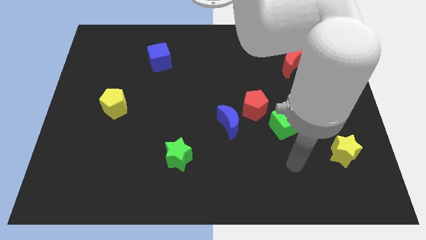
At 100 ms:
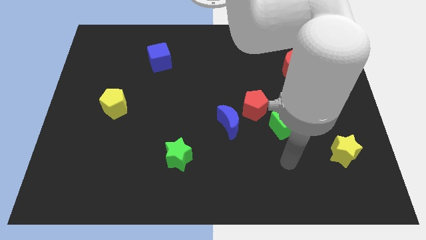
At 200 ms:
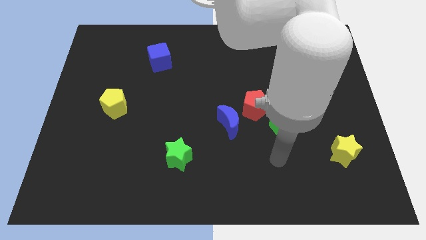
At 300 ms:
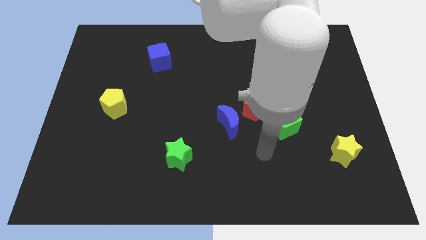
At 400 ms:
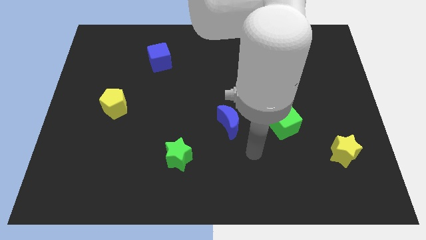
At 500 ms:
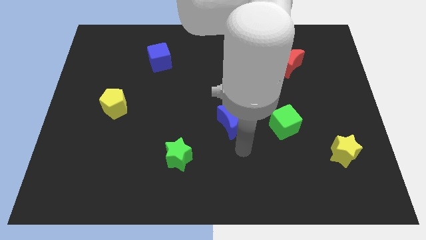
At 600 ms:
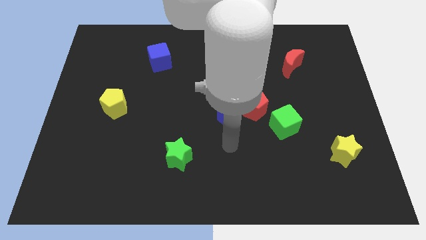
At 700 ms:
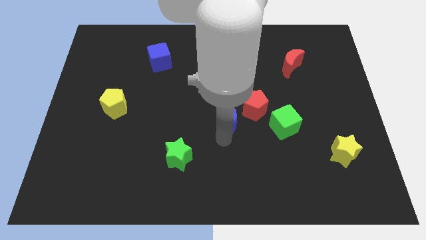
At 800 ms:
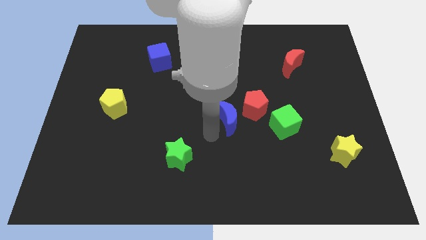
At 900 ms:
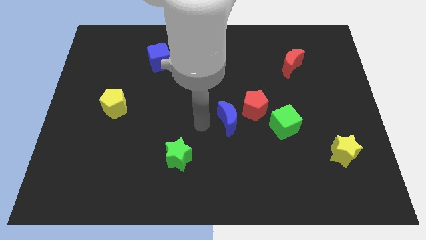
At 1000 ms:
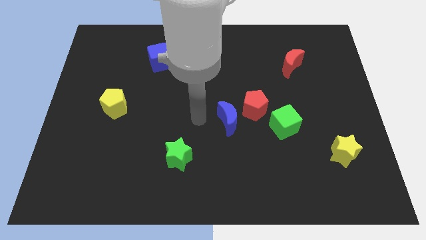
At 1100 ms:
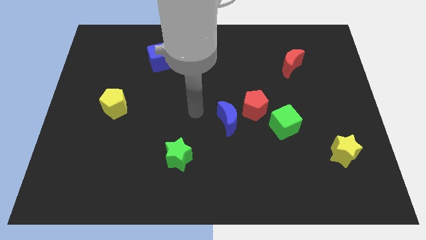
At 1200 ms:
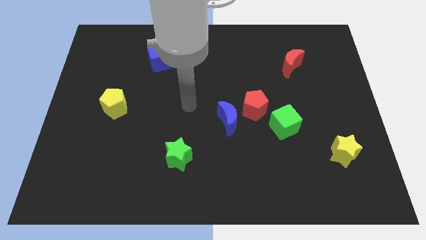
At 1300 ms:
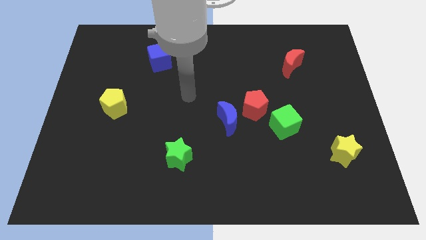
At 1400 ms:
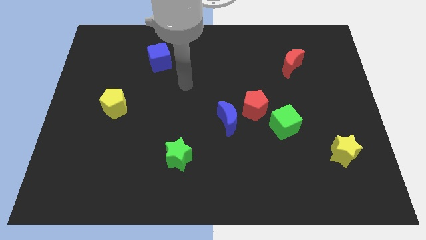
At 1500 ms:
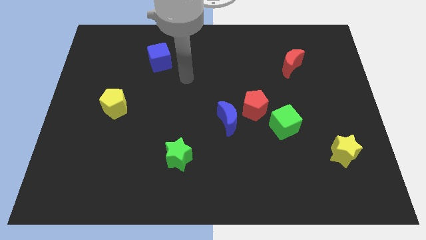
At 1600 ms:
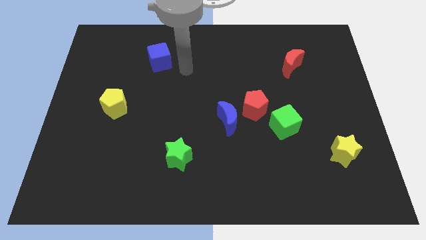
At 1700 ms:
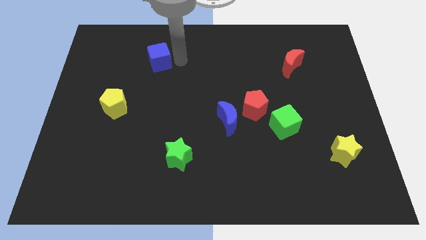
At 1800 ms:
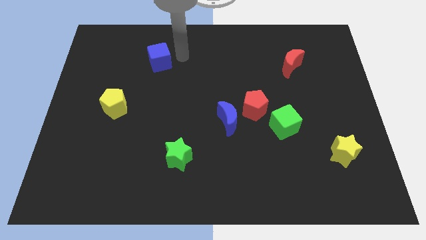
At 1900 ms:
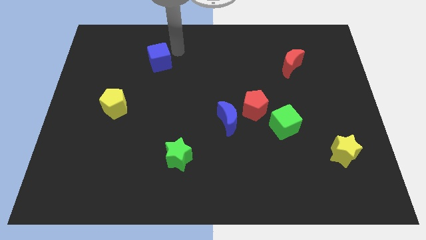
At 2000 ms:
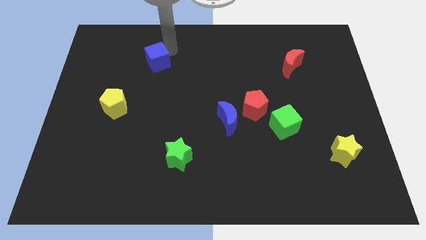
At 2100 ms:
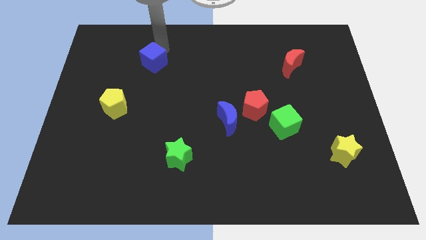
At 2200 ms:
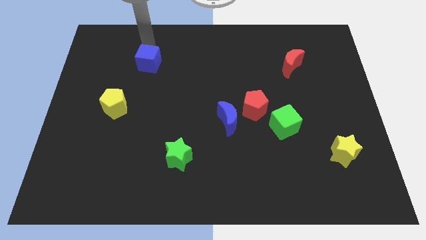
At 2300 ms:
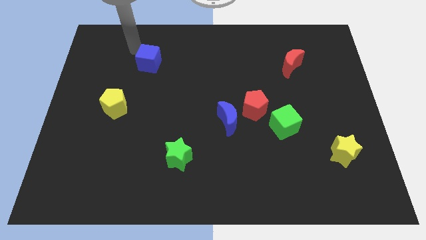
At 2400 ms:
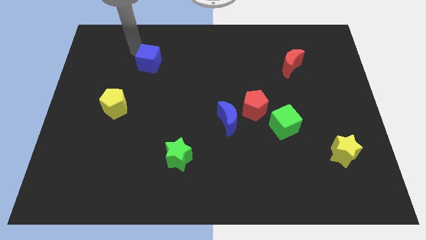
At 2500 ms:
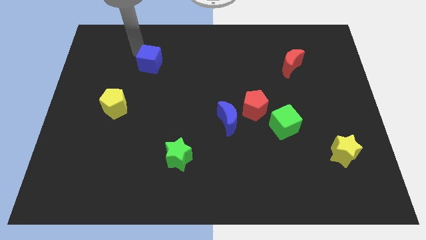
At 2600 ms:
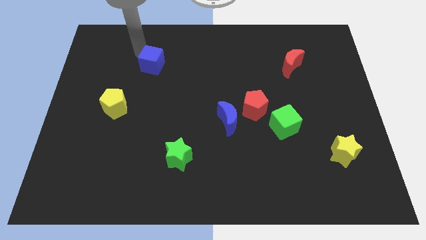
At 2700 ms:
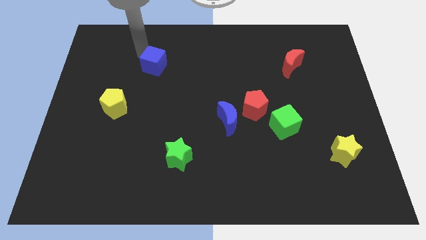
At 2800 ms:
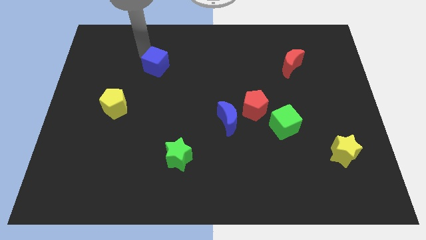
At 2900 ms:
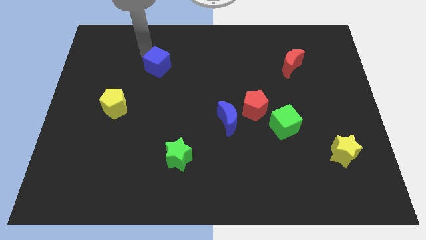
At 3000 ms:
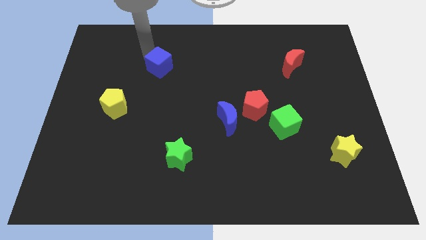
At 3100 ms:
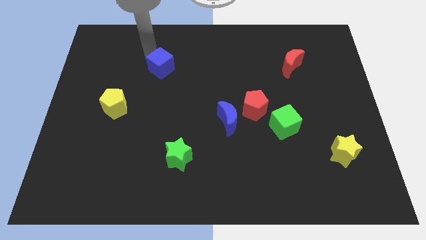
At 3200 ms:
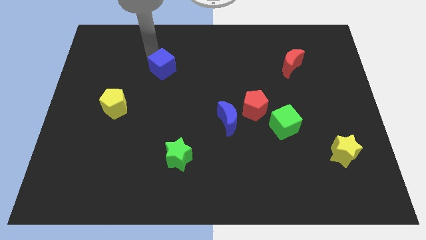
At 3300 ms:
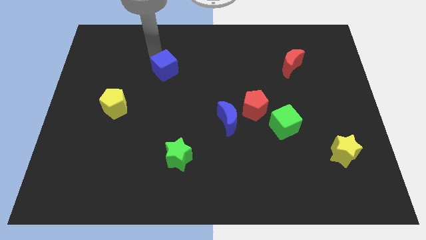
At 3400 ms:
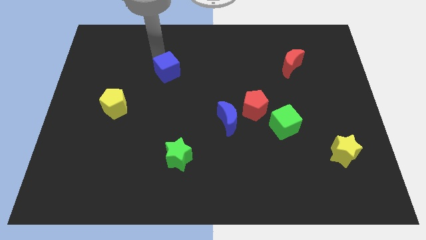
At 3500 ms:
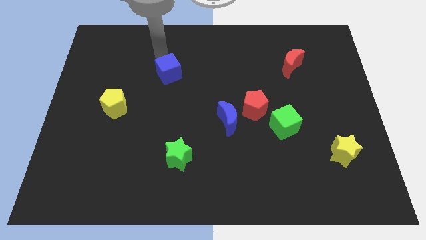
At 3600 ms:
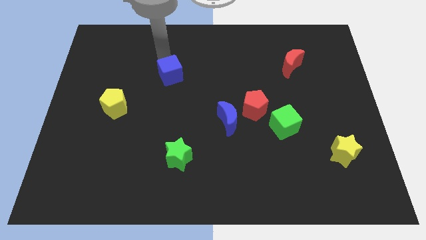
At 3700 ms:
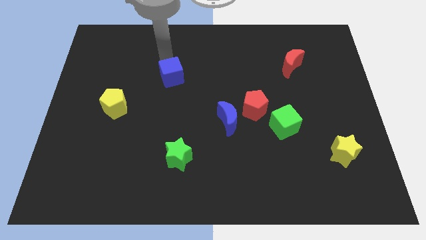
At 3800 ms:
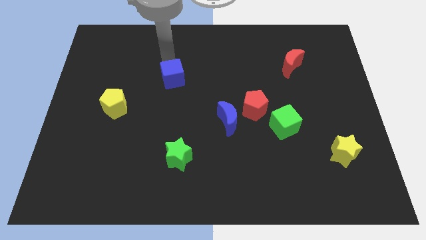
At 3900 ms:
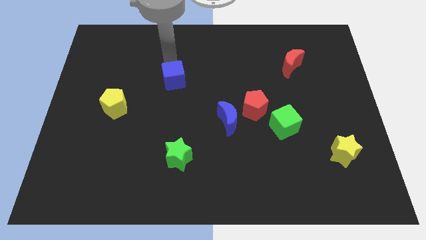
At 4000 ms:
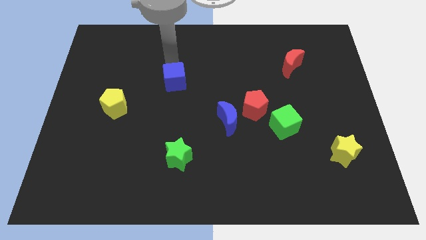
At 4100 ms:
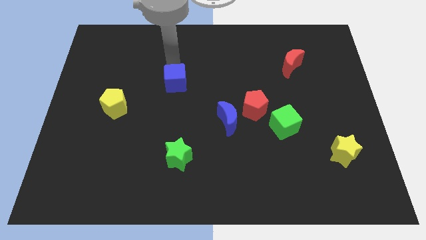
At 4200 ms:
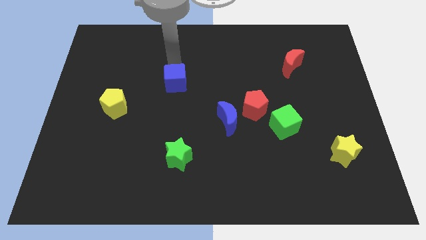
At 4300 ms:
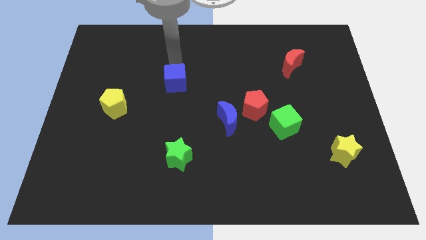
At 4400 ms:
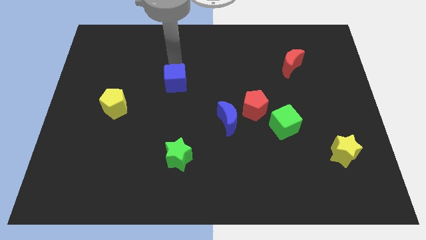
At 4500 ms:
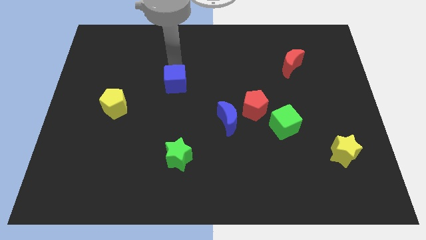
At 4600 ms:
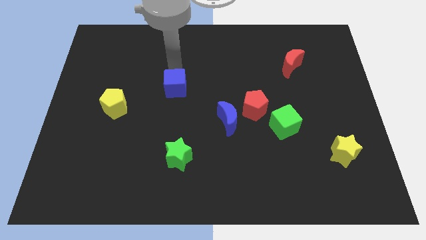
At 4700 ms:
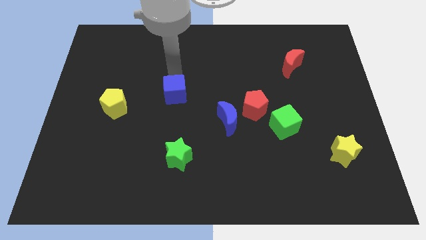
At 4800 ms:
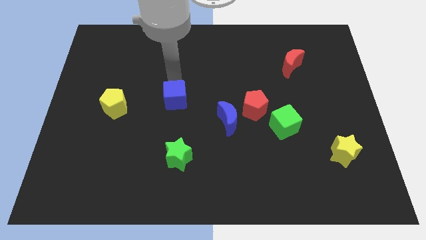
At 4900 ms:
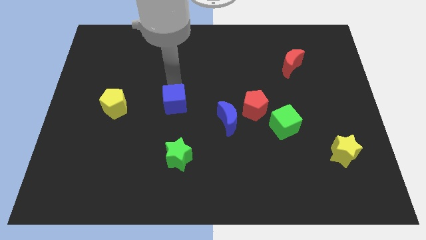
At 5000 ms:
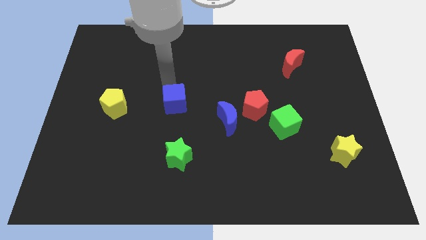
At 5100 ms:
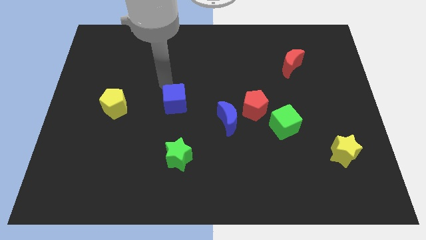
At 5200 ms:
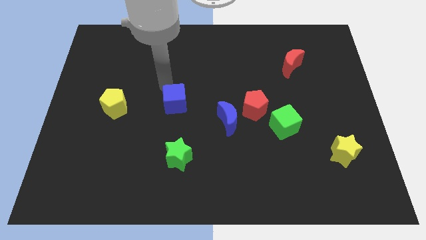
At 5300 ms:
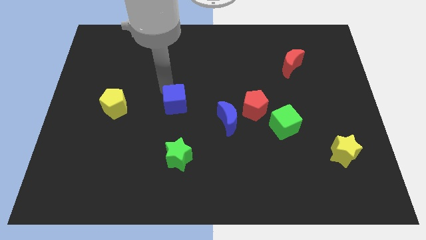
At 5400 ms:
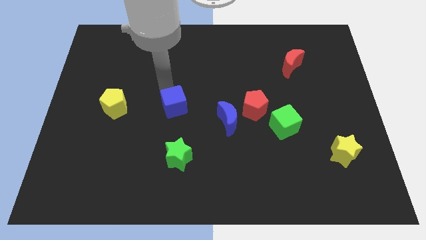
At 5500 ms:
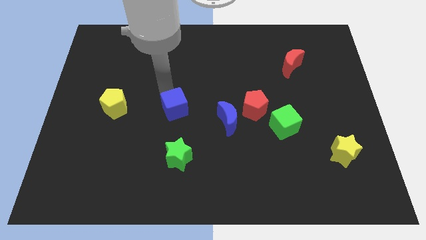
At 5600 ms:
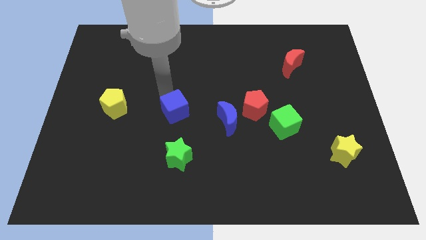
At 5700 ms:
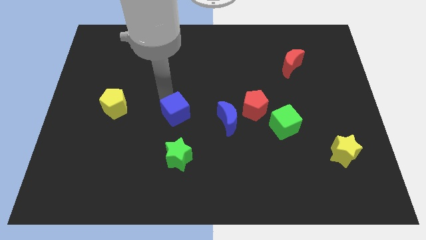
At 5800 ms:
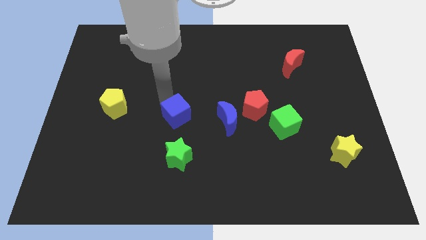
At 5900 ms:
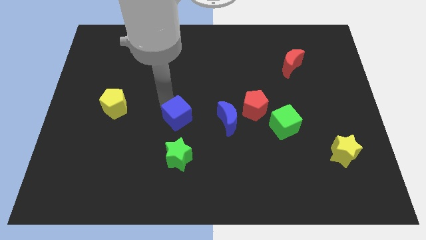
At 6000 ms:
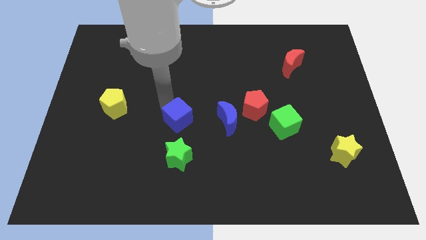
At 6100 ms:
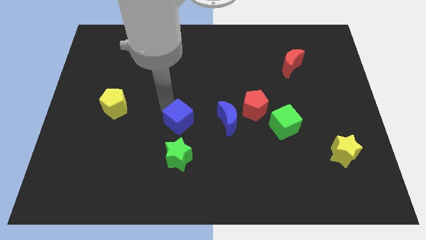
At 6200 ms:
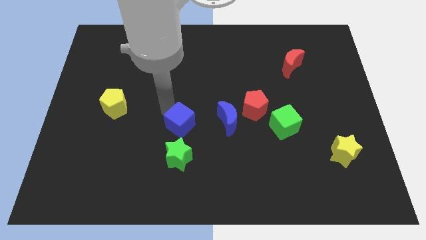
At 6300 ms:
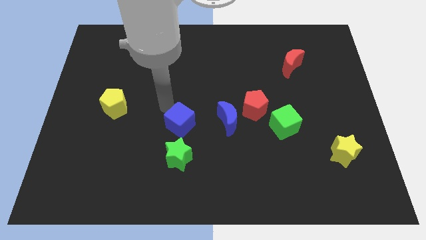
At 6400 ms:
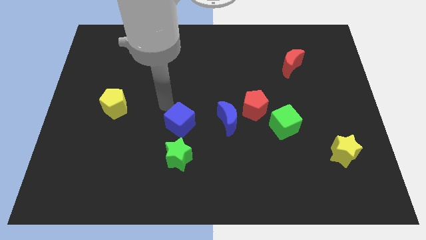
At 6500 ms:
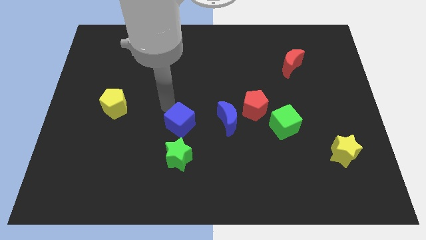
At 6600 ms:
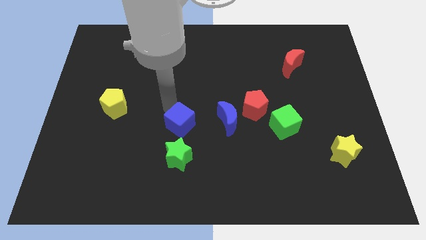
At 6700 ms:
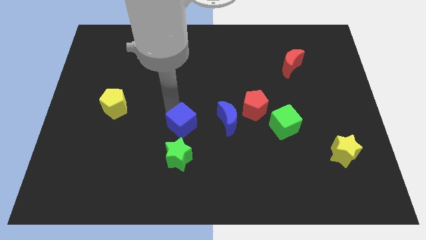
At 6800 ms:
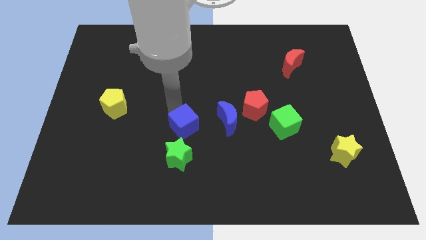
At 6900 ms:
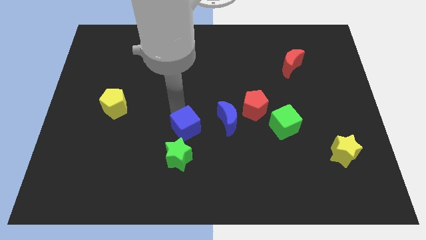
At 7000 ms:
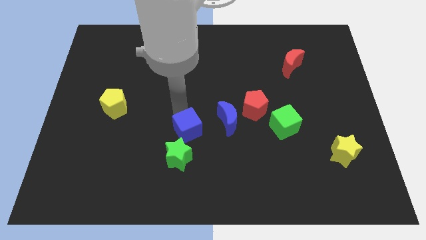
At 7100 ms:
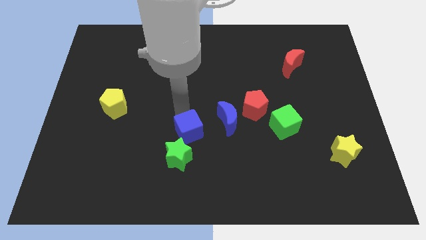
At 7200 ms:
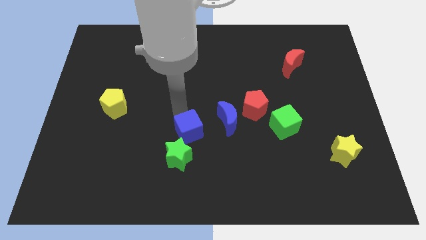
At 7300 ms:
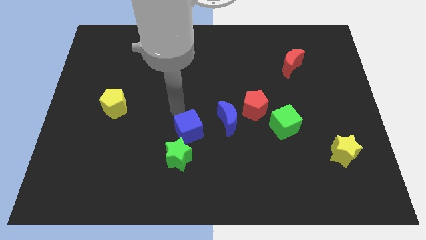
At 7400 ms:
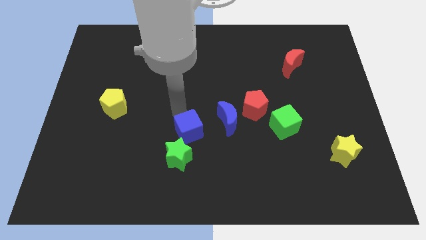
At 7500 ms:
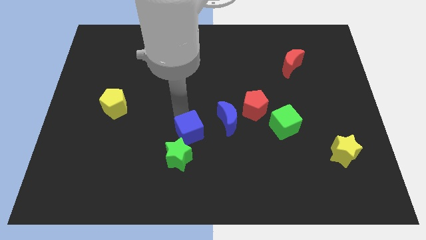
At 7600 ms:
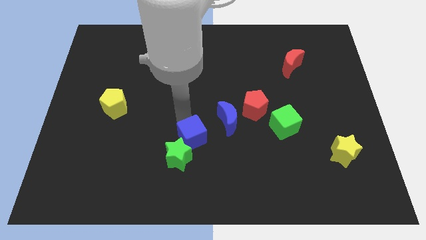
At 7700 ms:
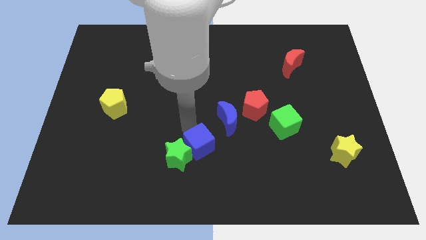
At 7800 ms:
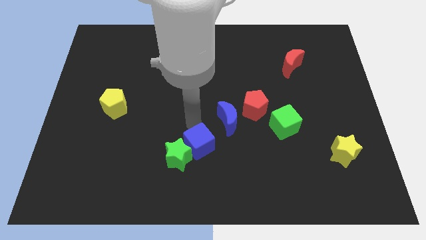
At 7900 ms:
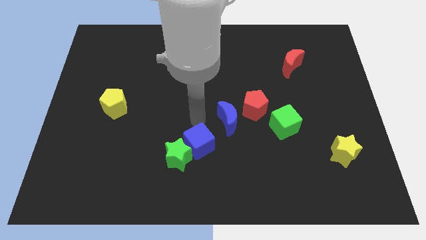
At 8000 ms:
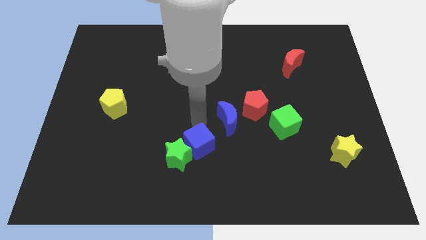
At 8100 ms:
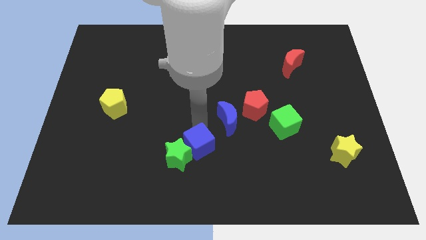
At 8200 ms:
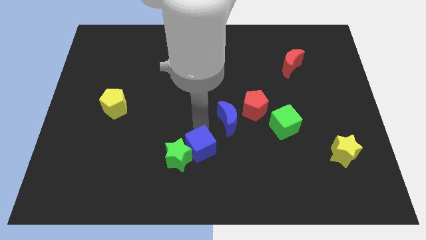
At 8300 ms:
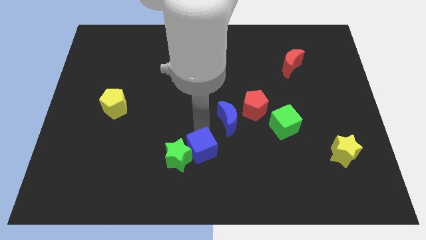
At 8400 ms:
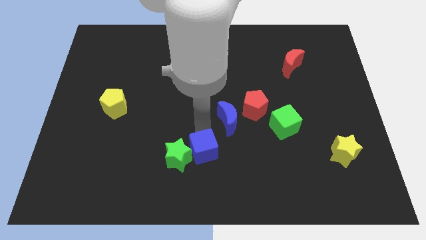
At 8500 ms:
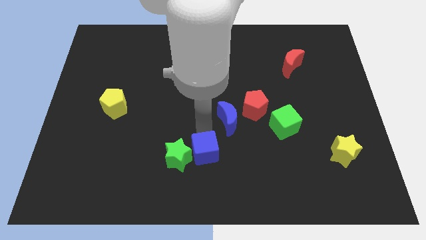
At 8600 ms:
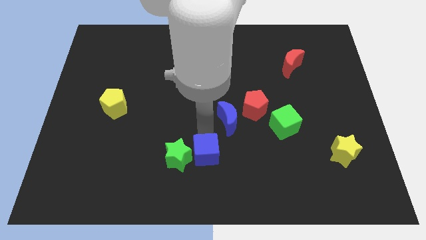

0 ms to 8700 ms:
put the blue cube to the bottom
